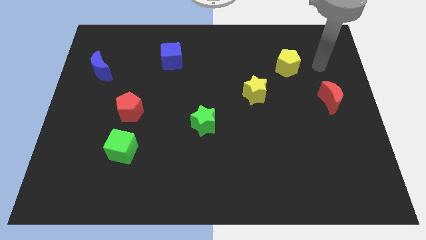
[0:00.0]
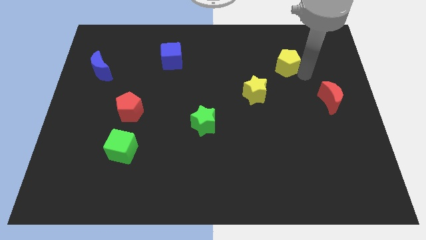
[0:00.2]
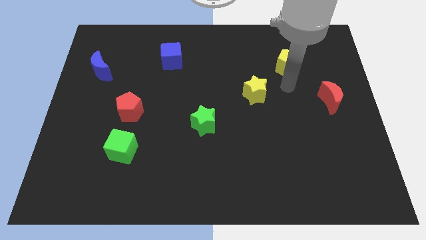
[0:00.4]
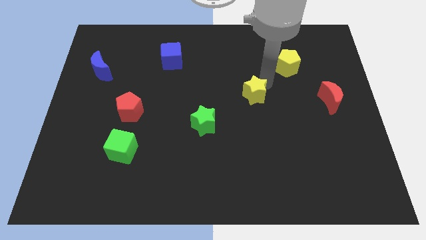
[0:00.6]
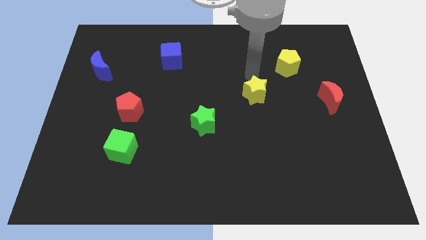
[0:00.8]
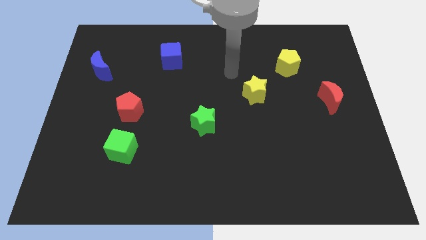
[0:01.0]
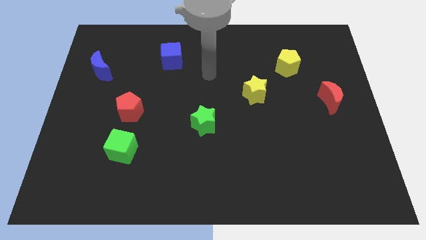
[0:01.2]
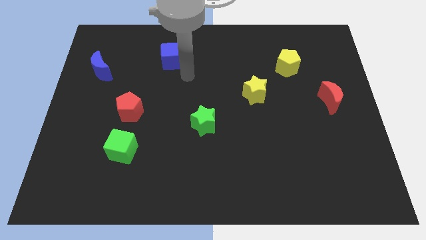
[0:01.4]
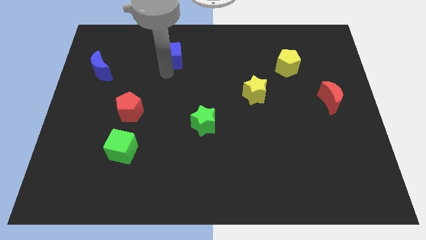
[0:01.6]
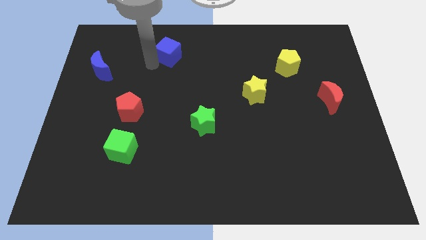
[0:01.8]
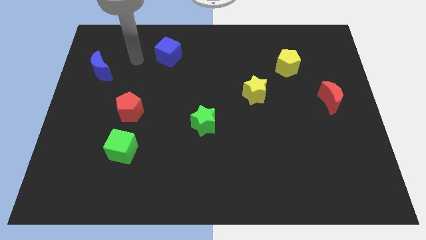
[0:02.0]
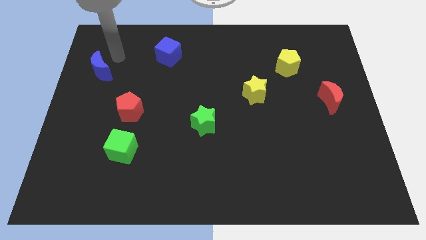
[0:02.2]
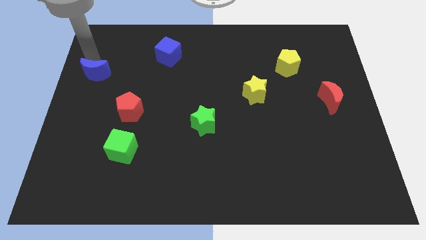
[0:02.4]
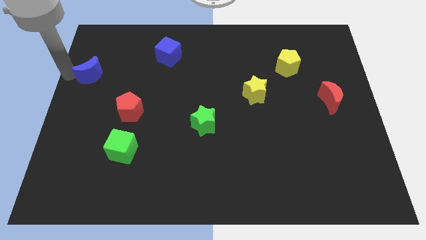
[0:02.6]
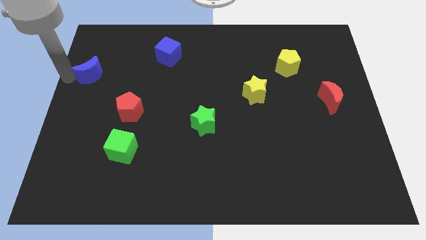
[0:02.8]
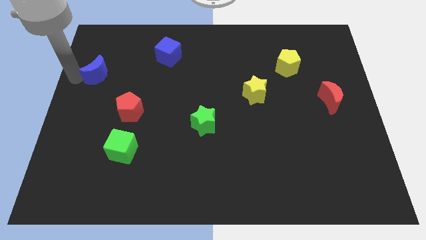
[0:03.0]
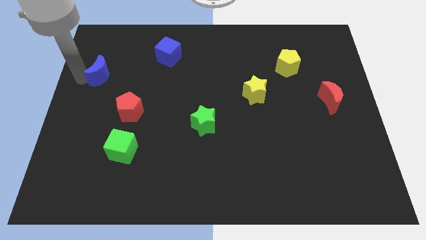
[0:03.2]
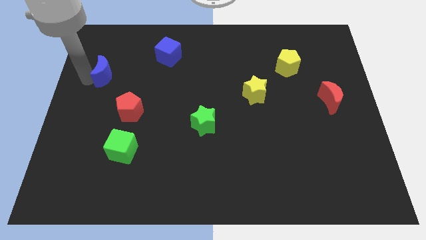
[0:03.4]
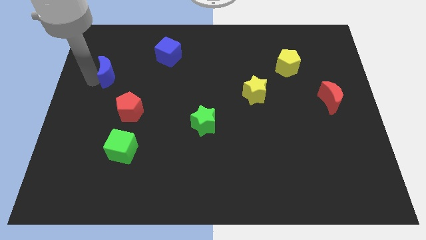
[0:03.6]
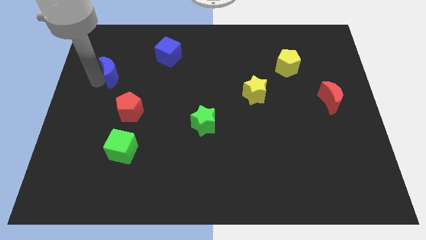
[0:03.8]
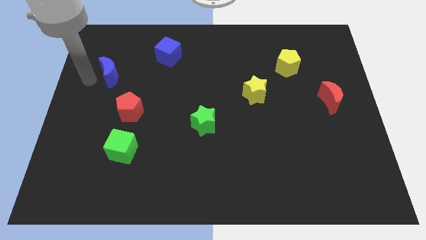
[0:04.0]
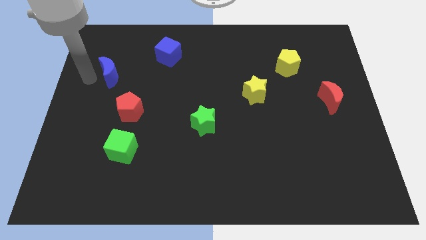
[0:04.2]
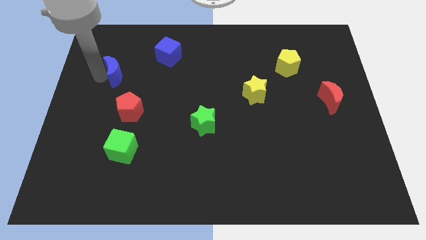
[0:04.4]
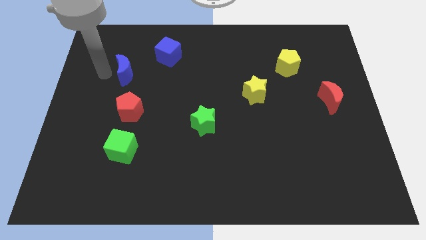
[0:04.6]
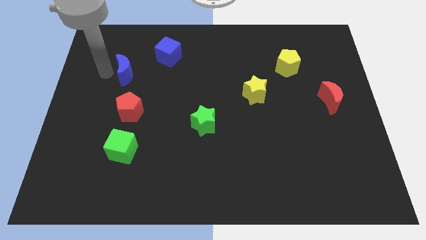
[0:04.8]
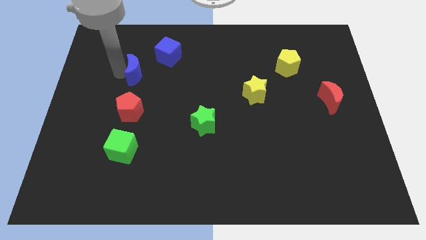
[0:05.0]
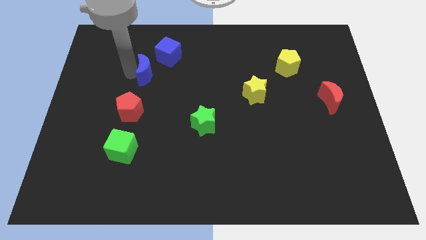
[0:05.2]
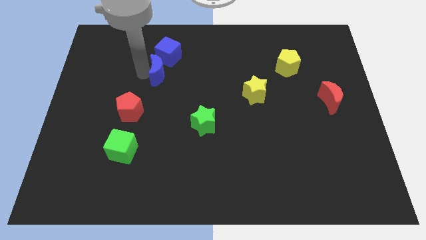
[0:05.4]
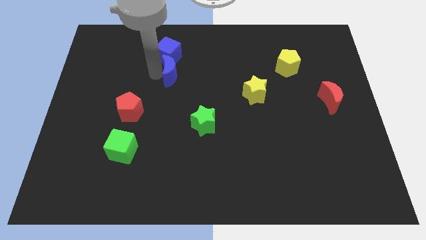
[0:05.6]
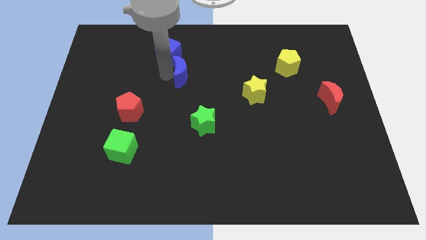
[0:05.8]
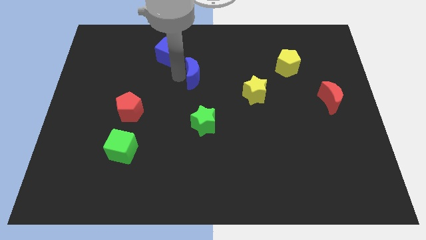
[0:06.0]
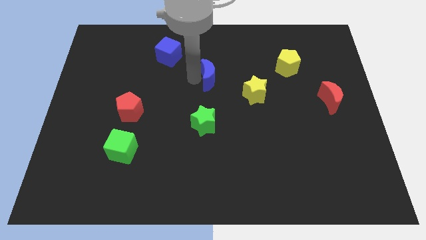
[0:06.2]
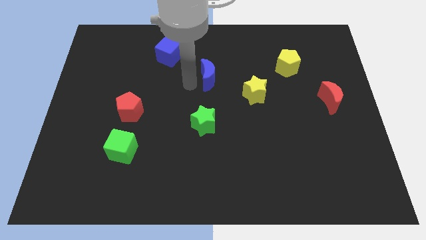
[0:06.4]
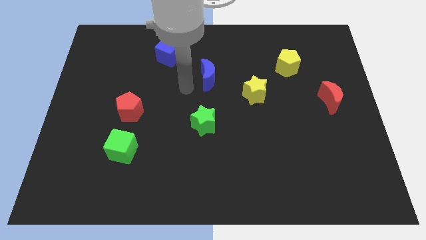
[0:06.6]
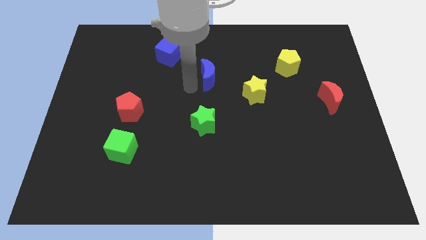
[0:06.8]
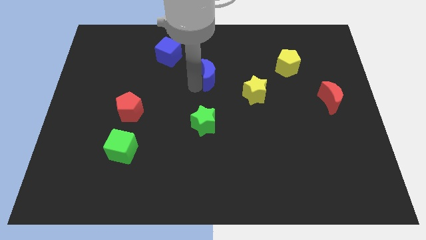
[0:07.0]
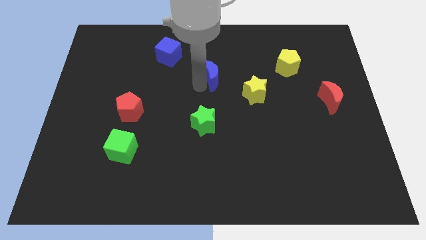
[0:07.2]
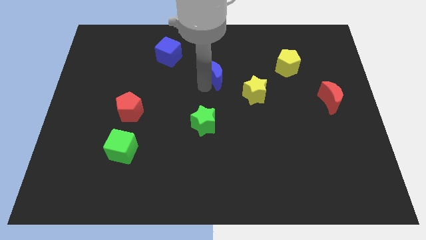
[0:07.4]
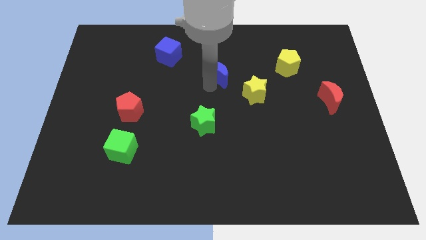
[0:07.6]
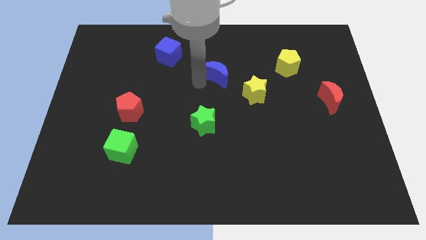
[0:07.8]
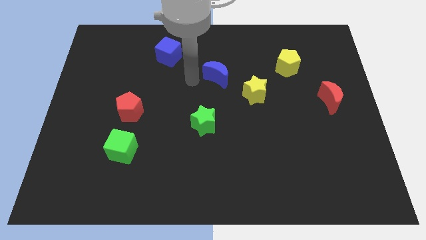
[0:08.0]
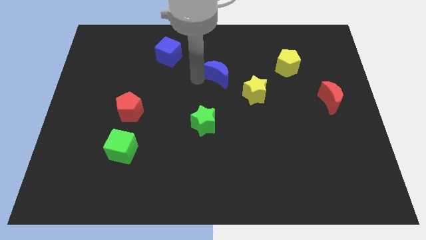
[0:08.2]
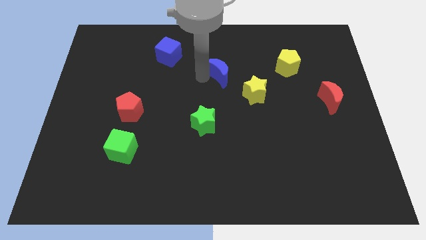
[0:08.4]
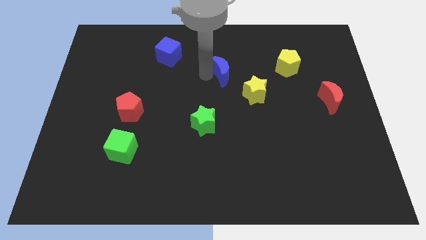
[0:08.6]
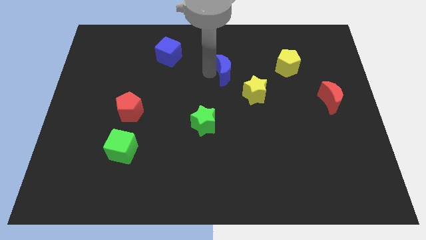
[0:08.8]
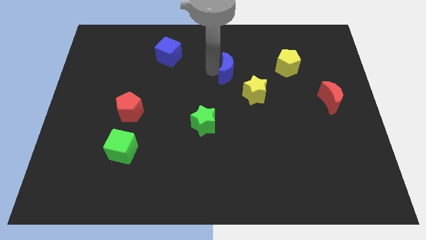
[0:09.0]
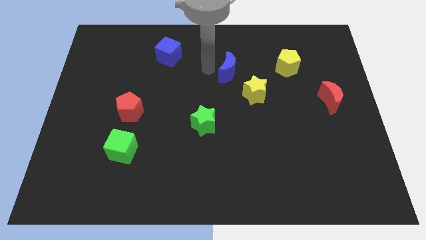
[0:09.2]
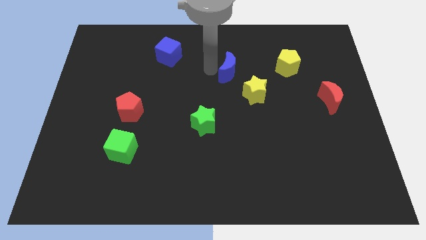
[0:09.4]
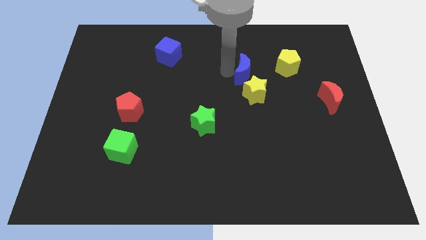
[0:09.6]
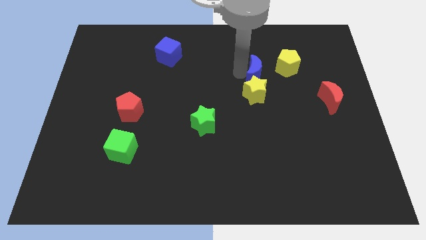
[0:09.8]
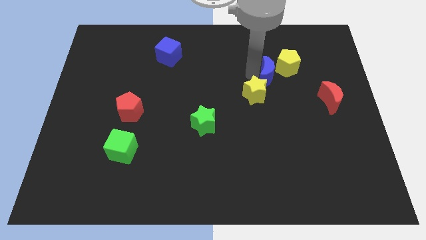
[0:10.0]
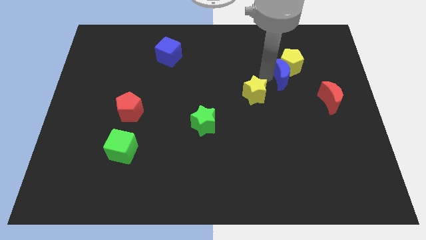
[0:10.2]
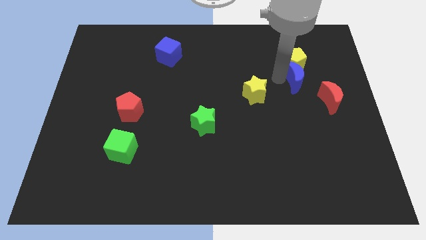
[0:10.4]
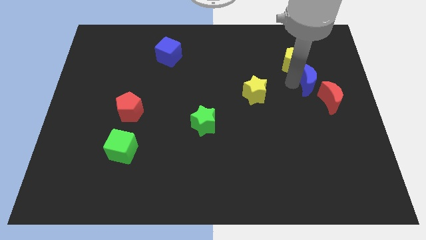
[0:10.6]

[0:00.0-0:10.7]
put the blue moon to the top of the red moon

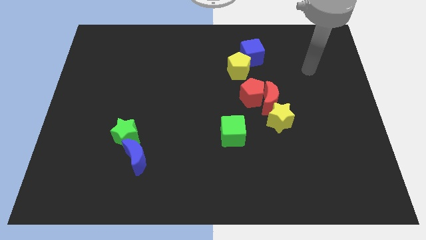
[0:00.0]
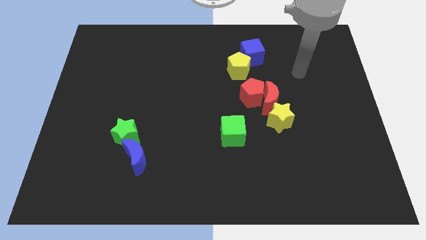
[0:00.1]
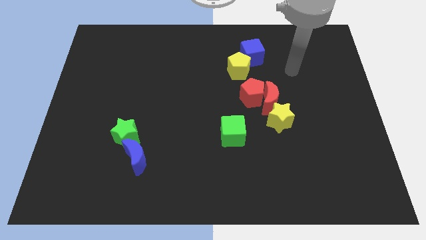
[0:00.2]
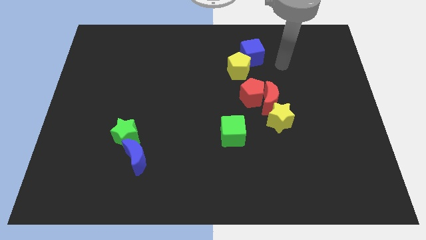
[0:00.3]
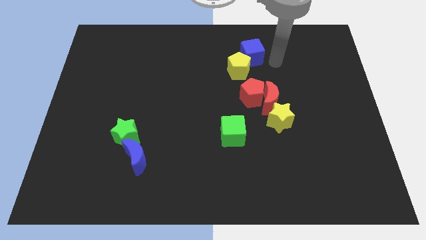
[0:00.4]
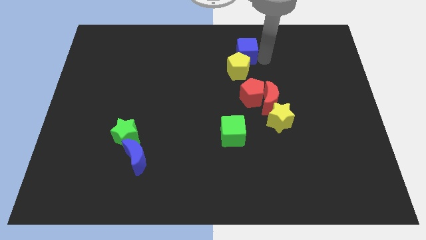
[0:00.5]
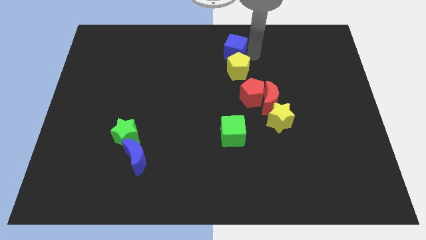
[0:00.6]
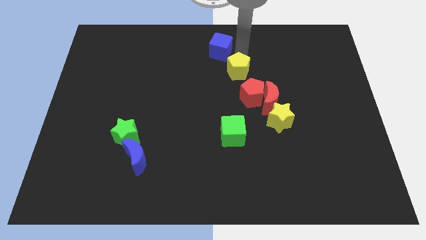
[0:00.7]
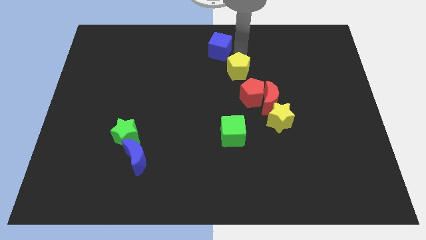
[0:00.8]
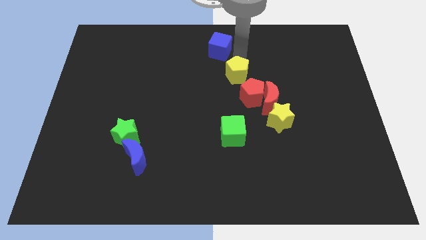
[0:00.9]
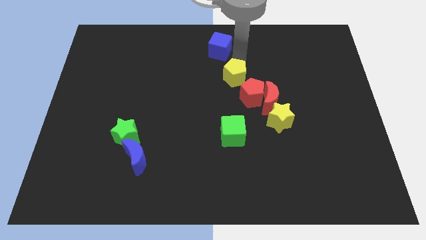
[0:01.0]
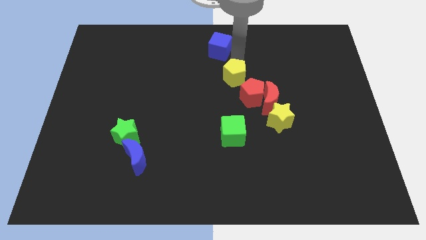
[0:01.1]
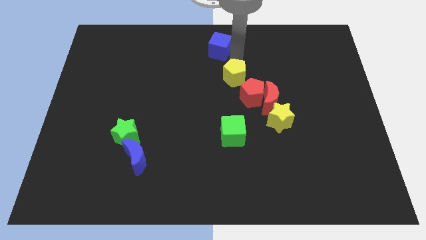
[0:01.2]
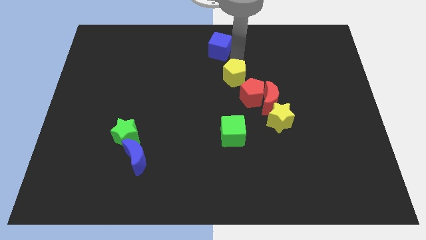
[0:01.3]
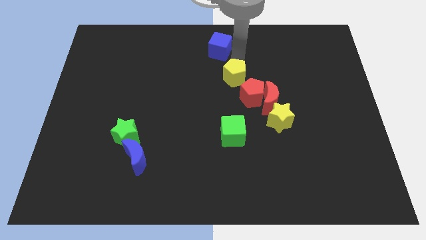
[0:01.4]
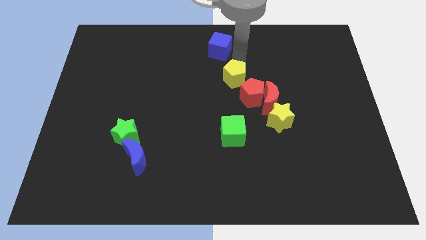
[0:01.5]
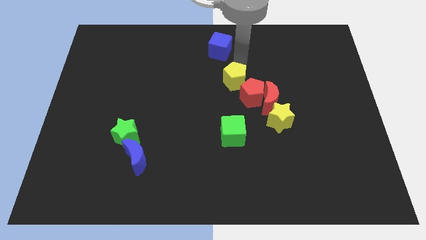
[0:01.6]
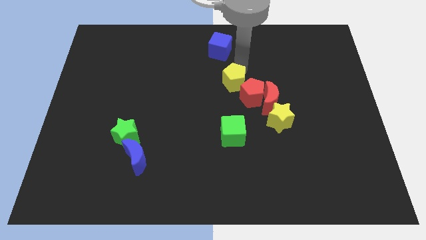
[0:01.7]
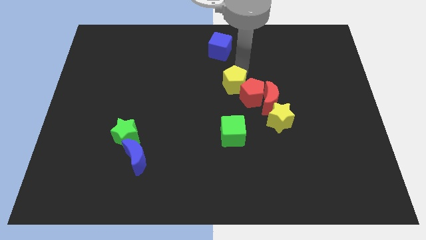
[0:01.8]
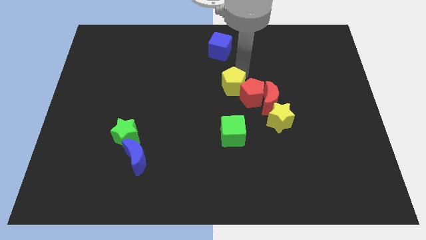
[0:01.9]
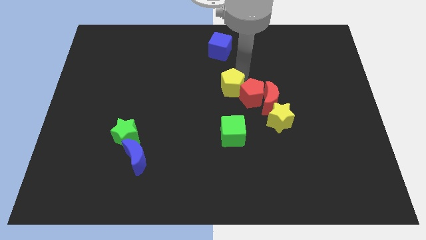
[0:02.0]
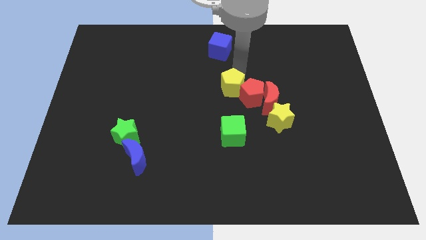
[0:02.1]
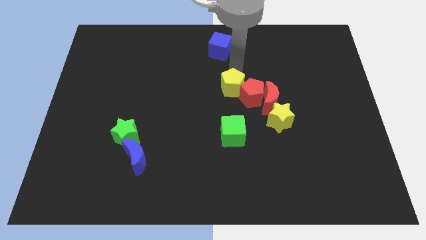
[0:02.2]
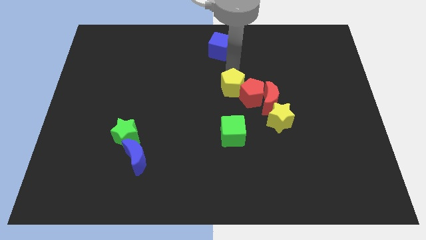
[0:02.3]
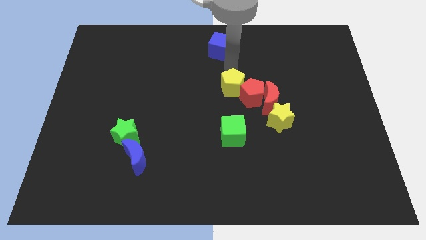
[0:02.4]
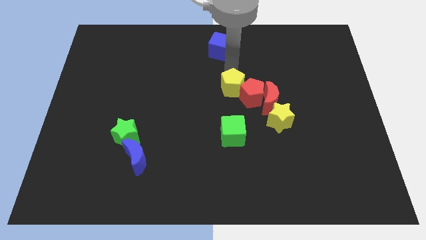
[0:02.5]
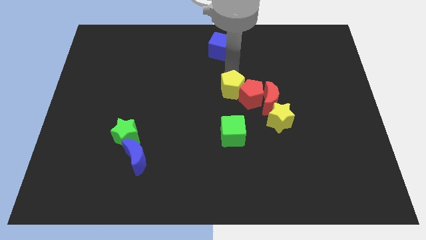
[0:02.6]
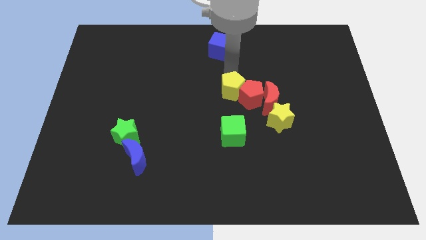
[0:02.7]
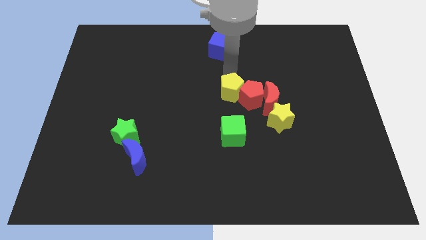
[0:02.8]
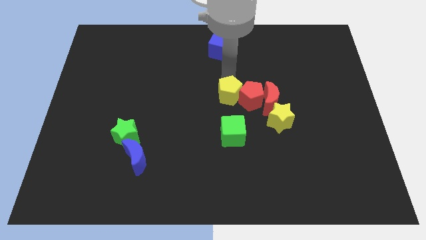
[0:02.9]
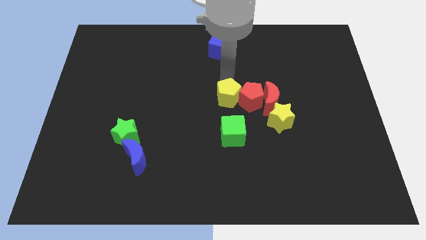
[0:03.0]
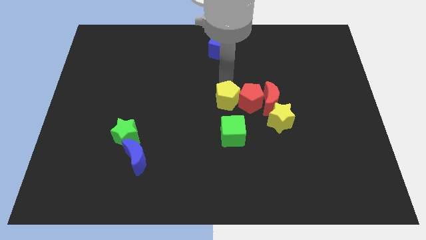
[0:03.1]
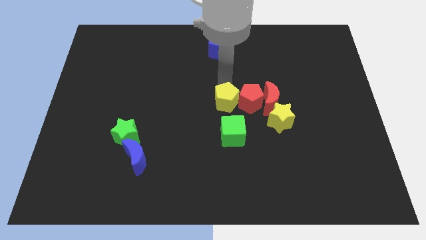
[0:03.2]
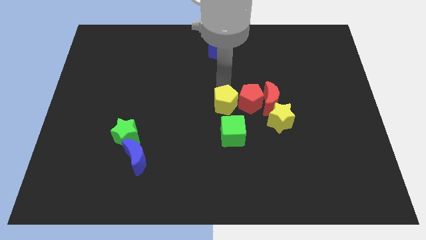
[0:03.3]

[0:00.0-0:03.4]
put the yellow pentagon just left of the yellow star
